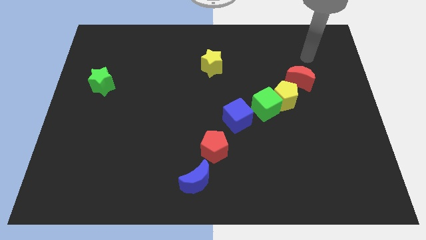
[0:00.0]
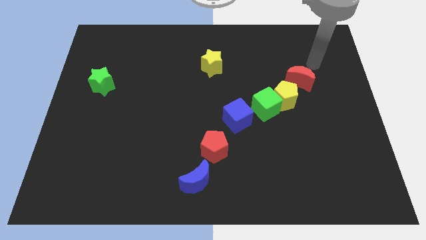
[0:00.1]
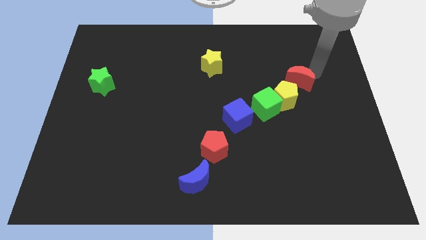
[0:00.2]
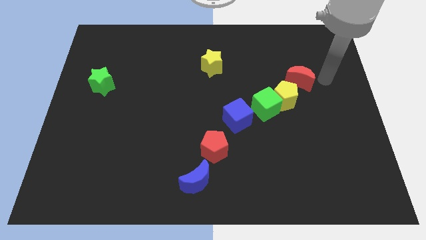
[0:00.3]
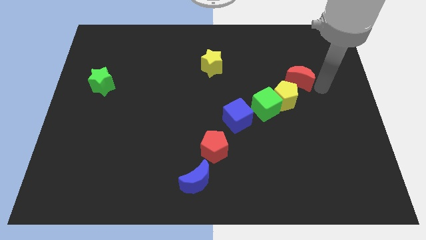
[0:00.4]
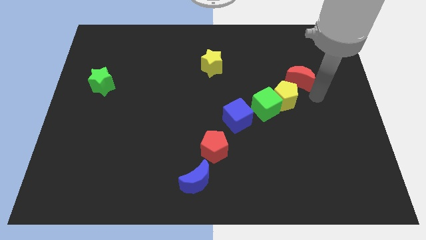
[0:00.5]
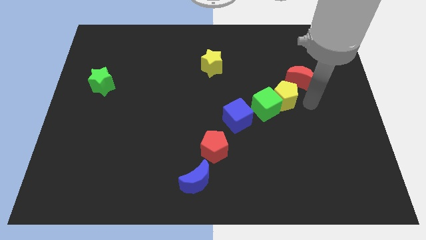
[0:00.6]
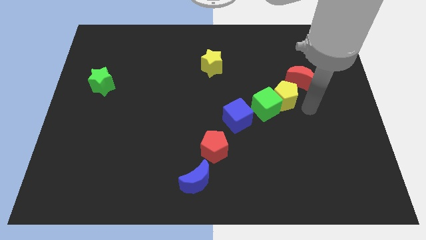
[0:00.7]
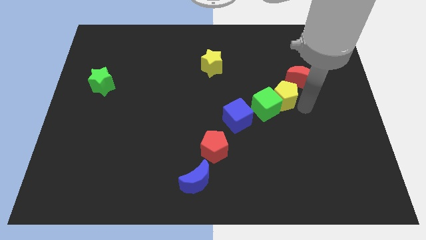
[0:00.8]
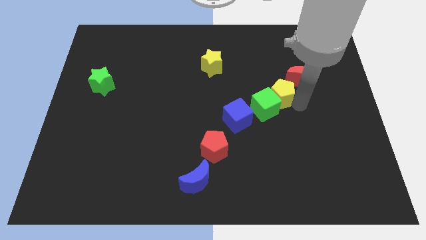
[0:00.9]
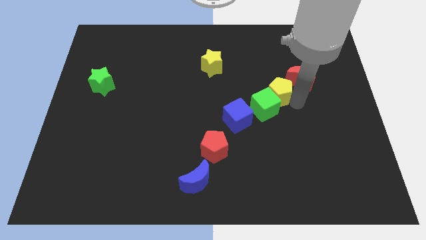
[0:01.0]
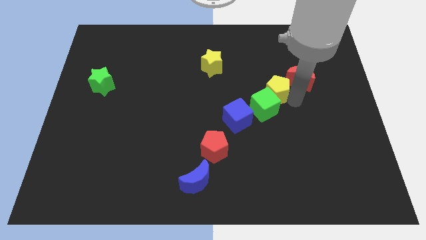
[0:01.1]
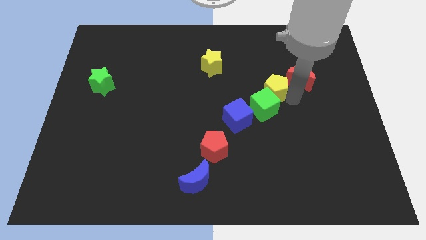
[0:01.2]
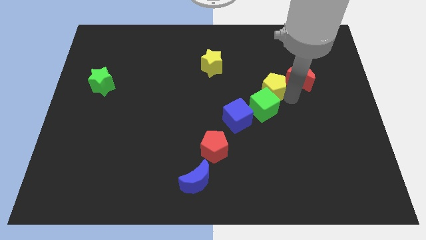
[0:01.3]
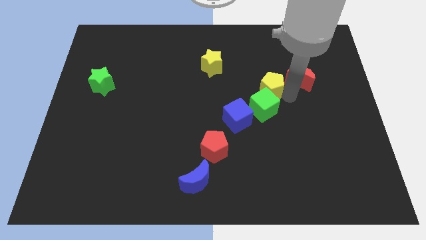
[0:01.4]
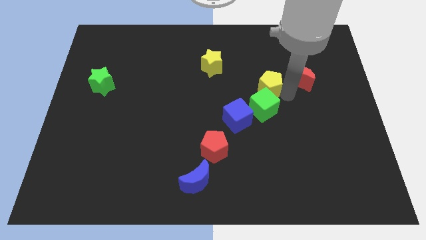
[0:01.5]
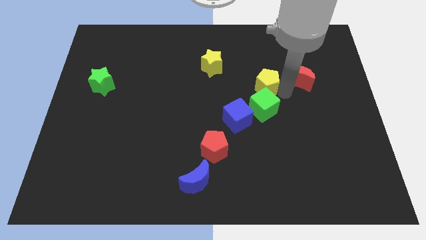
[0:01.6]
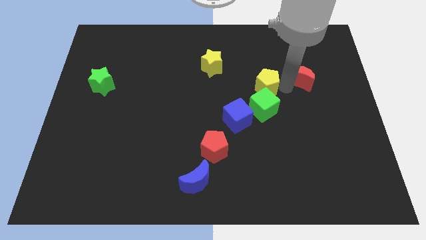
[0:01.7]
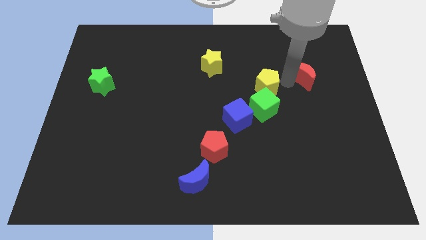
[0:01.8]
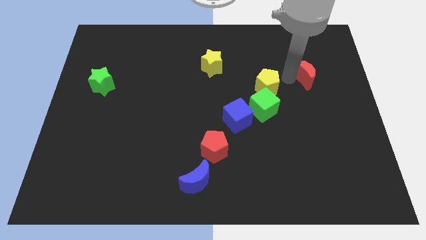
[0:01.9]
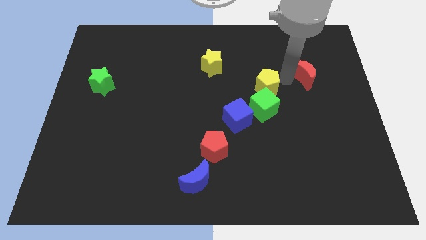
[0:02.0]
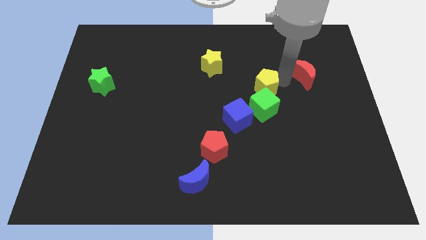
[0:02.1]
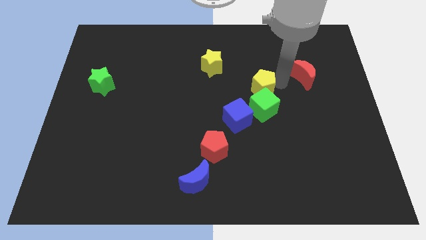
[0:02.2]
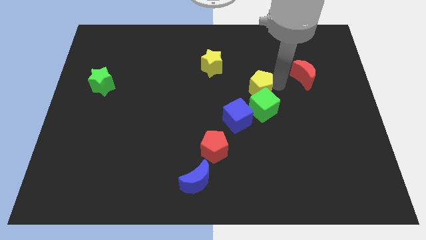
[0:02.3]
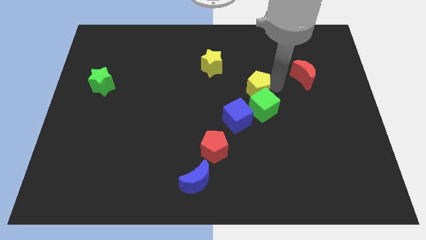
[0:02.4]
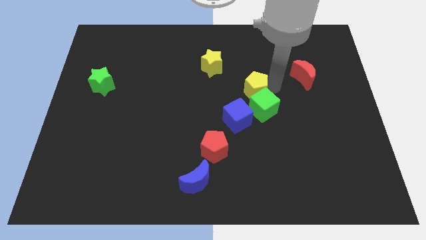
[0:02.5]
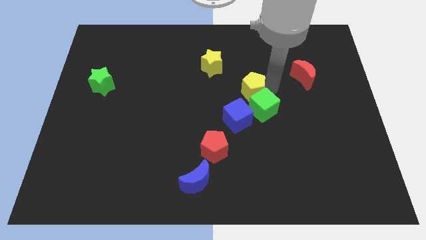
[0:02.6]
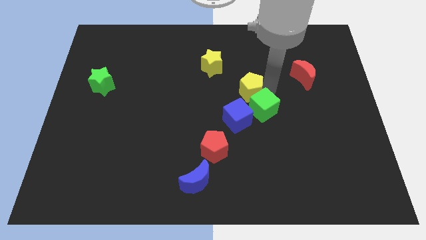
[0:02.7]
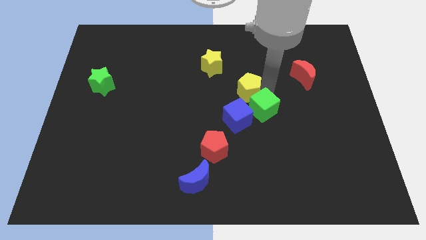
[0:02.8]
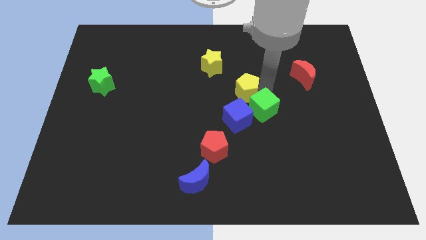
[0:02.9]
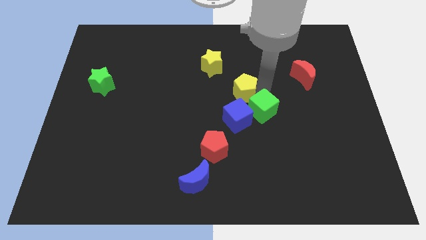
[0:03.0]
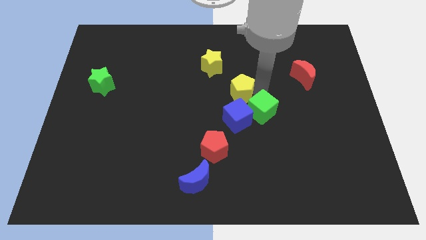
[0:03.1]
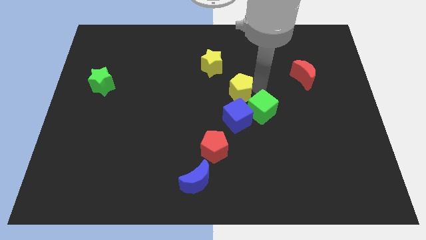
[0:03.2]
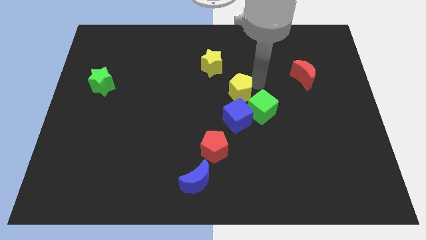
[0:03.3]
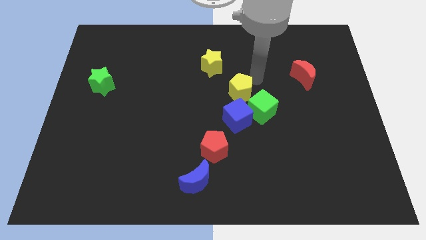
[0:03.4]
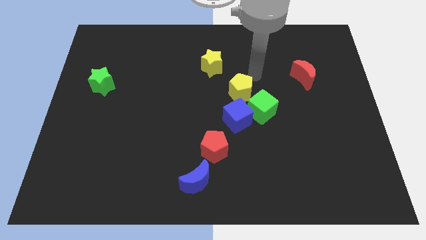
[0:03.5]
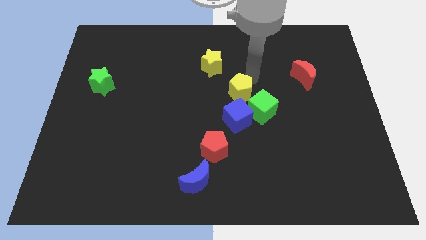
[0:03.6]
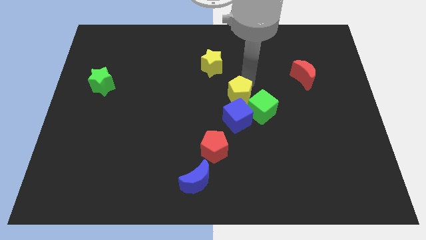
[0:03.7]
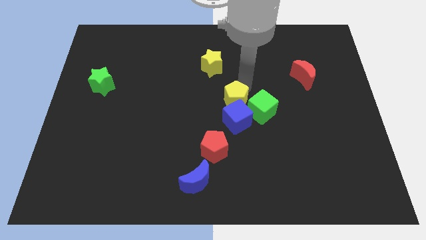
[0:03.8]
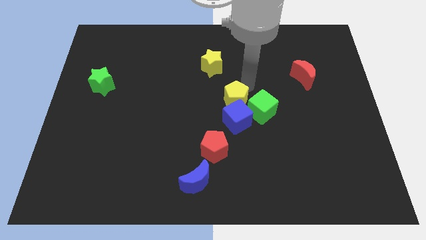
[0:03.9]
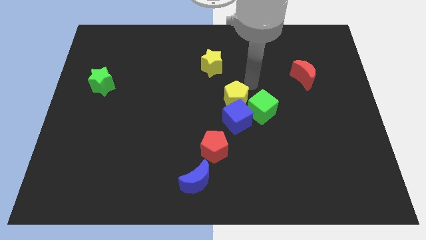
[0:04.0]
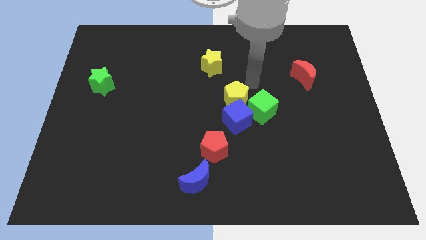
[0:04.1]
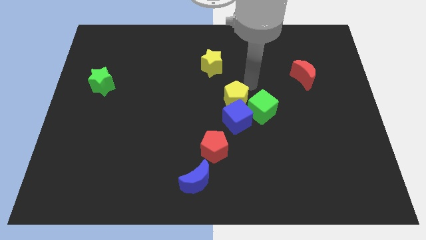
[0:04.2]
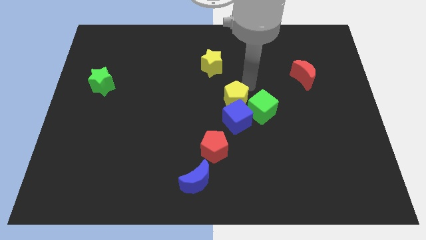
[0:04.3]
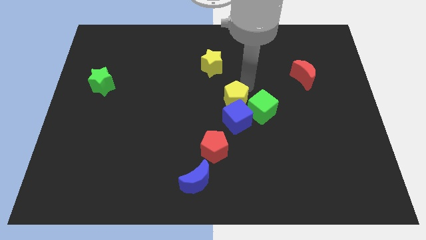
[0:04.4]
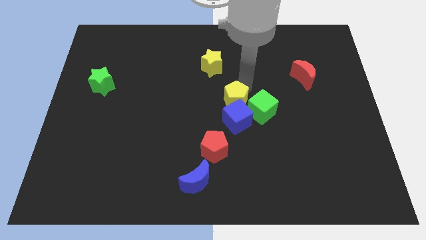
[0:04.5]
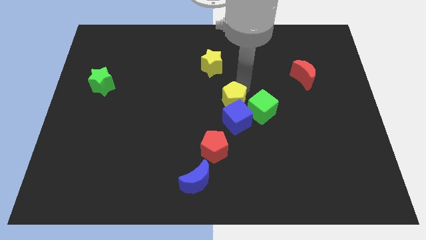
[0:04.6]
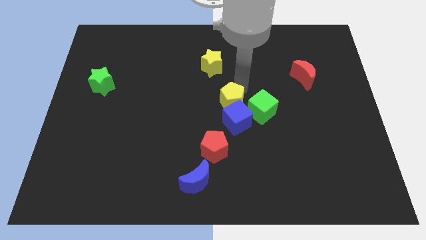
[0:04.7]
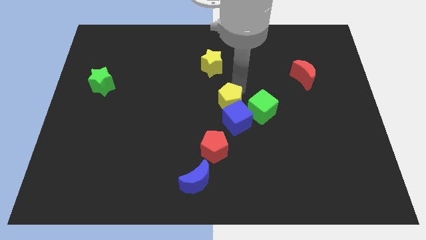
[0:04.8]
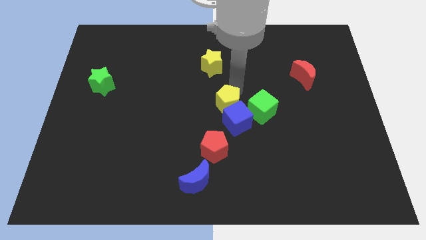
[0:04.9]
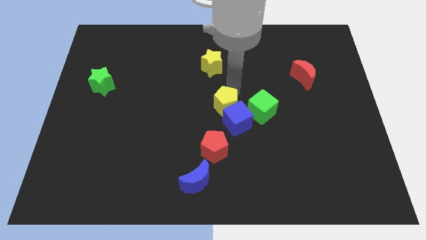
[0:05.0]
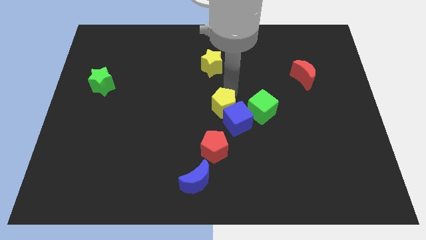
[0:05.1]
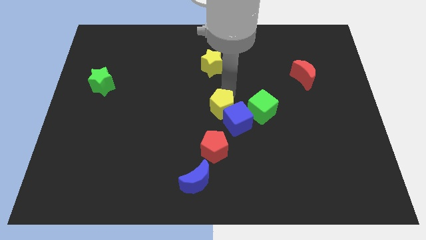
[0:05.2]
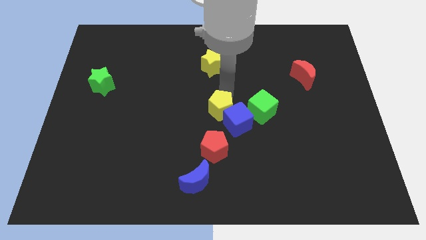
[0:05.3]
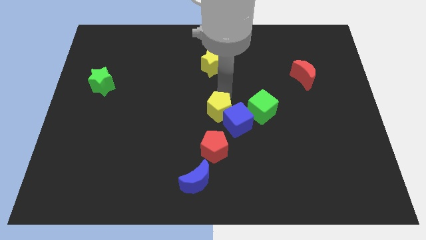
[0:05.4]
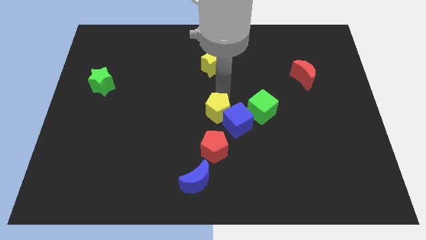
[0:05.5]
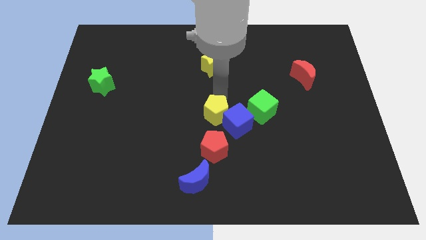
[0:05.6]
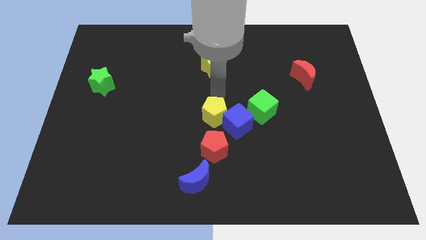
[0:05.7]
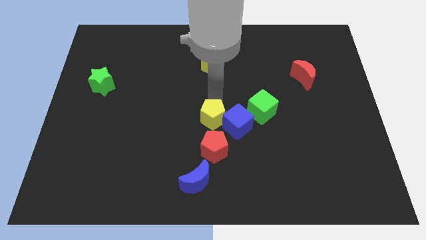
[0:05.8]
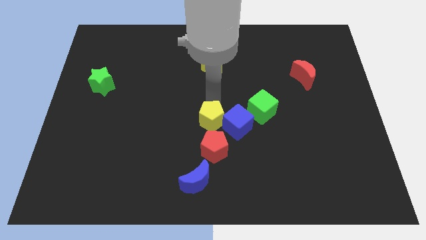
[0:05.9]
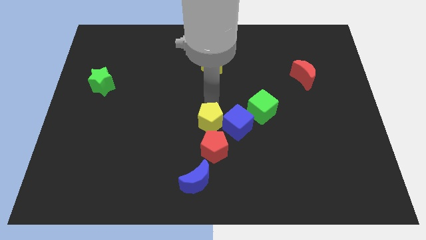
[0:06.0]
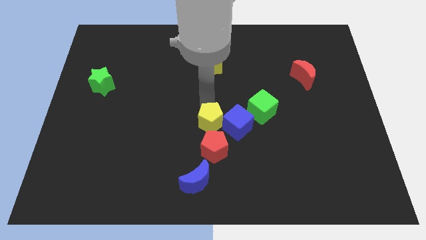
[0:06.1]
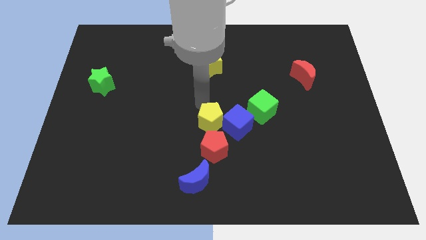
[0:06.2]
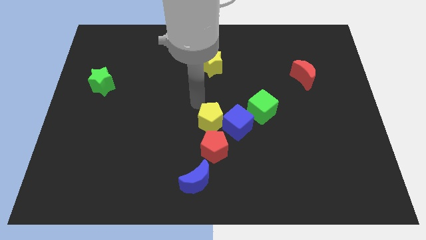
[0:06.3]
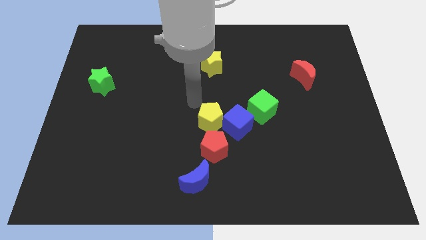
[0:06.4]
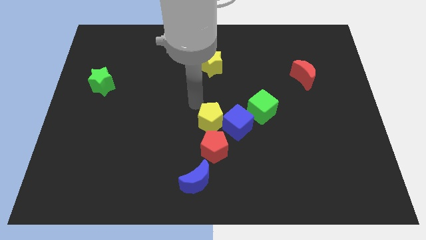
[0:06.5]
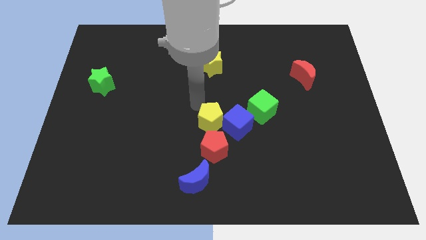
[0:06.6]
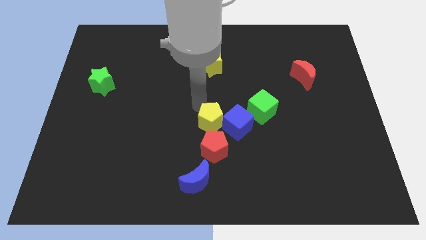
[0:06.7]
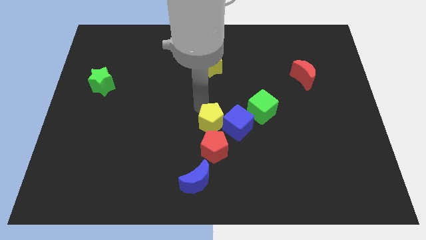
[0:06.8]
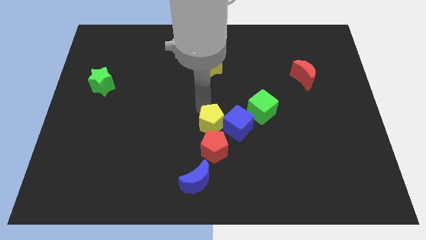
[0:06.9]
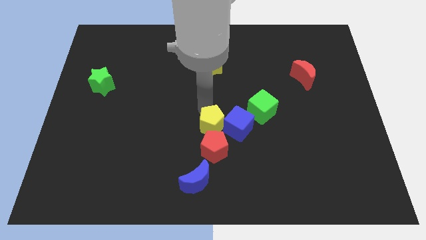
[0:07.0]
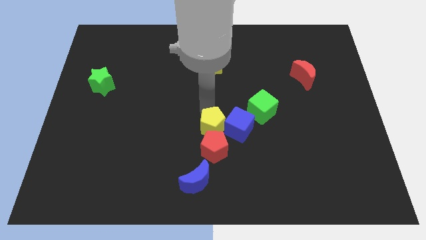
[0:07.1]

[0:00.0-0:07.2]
put the yellow pentagon next to the red pentagon
